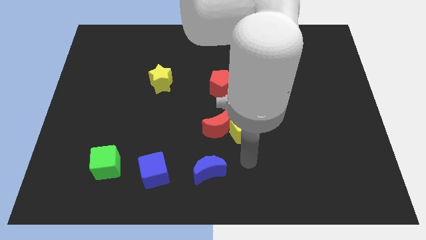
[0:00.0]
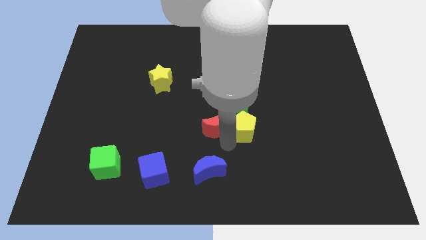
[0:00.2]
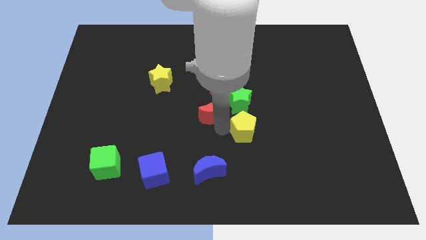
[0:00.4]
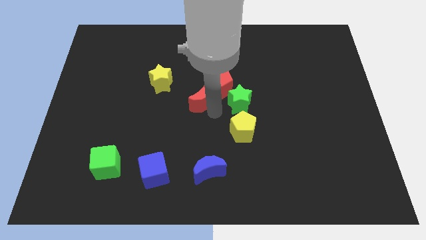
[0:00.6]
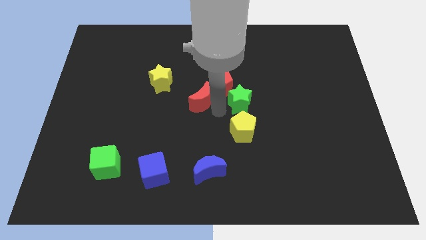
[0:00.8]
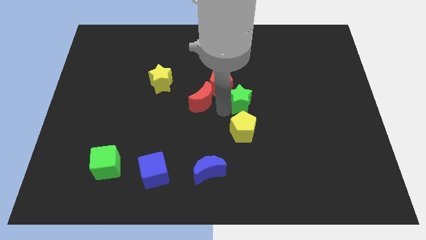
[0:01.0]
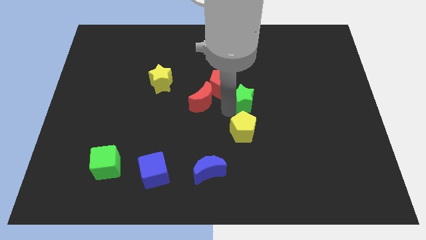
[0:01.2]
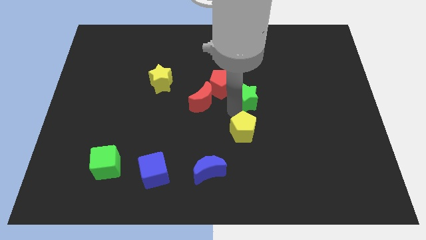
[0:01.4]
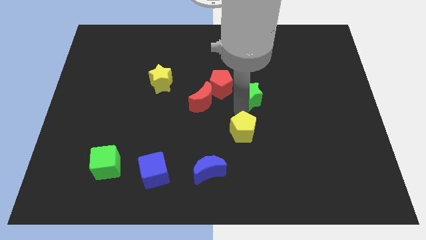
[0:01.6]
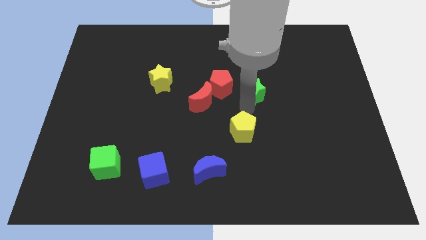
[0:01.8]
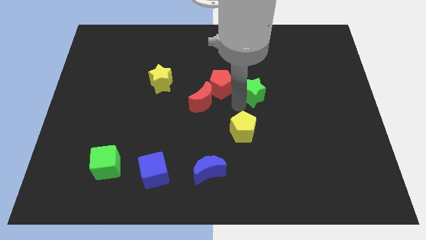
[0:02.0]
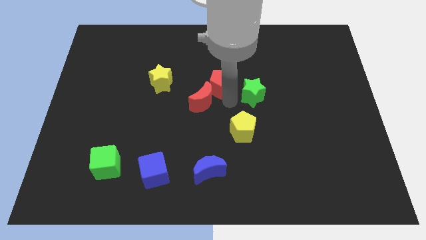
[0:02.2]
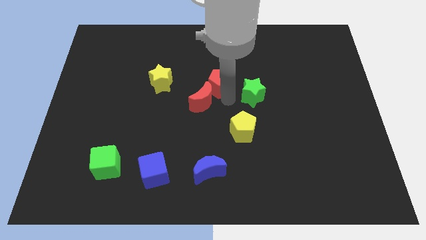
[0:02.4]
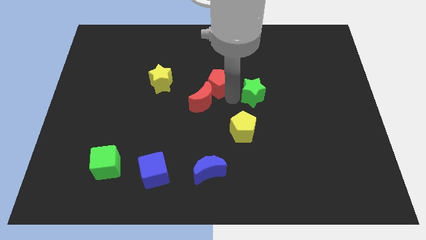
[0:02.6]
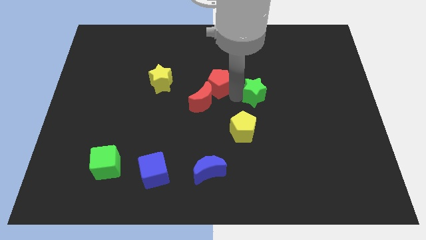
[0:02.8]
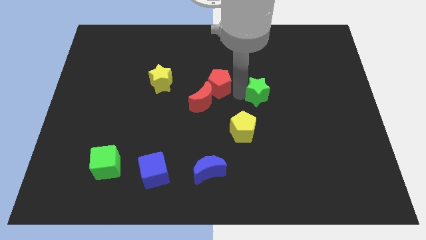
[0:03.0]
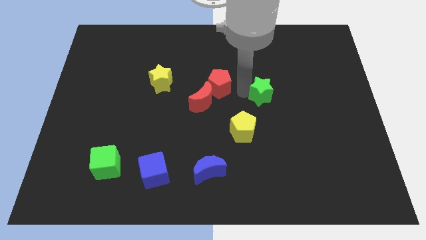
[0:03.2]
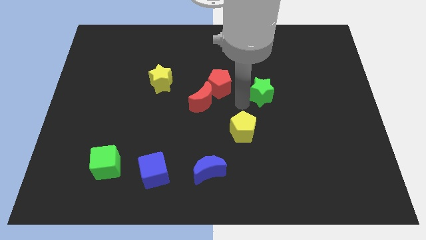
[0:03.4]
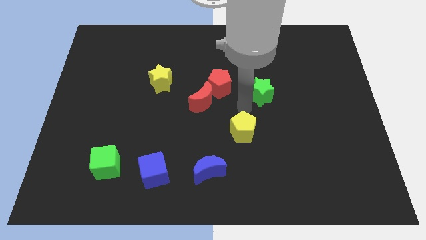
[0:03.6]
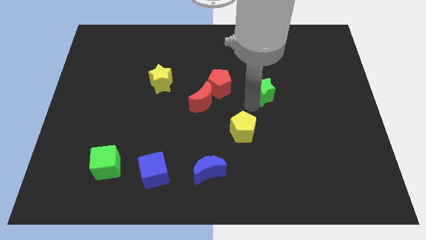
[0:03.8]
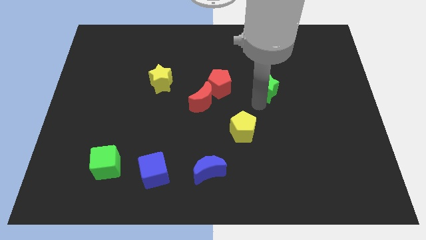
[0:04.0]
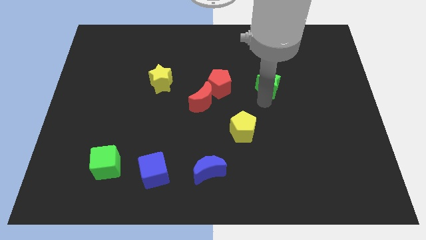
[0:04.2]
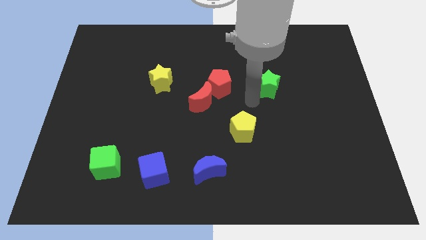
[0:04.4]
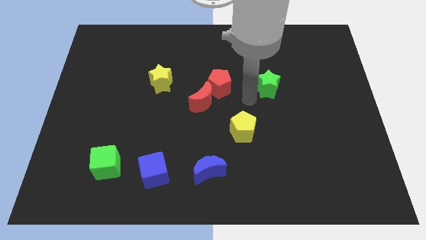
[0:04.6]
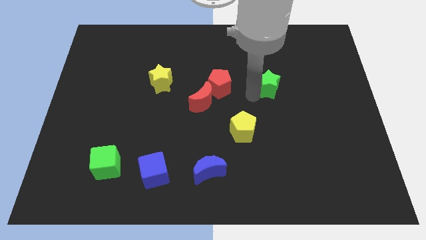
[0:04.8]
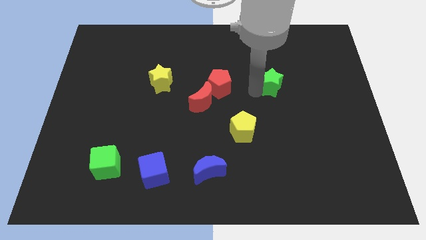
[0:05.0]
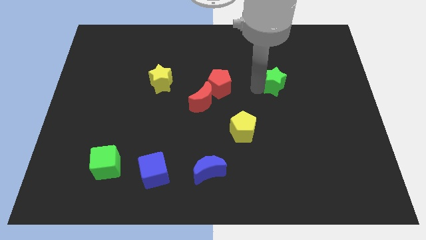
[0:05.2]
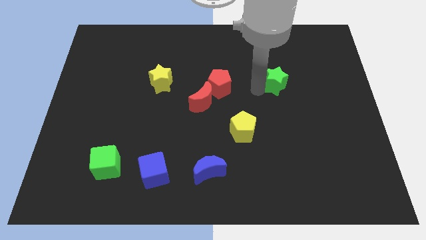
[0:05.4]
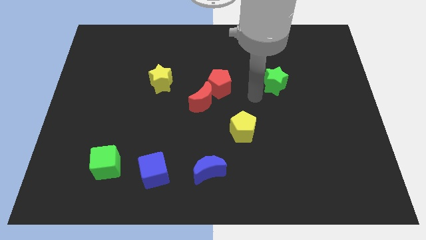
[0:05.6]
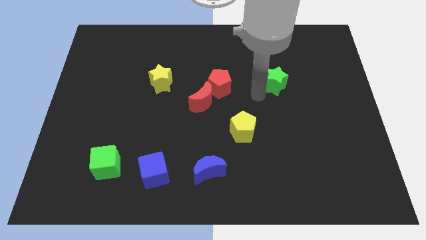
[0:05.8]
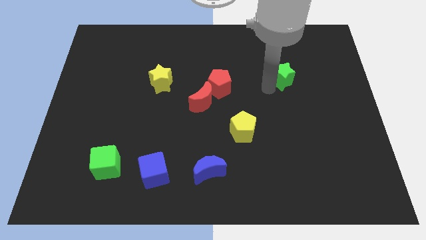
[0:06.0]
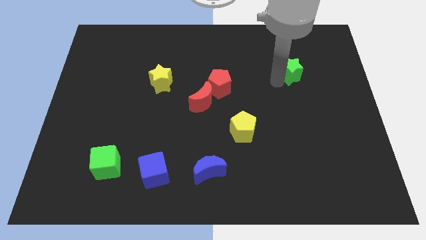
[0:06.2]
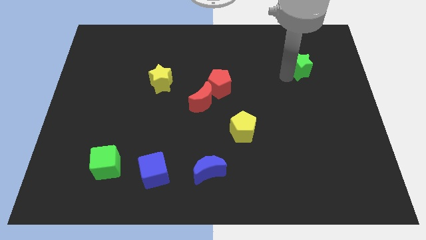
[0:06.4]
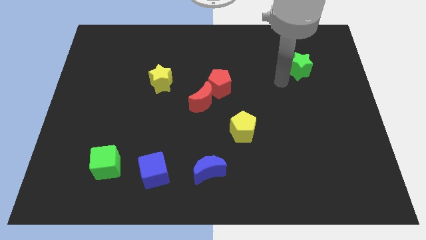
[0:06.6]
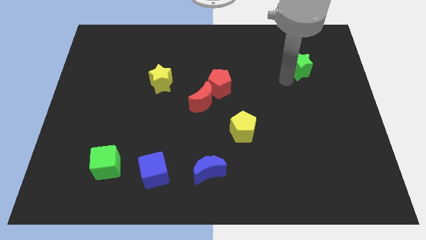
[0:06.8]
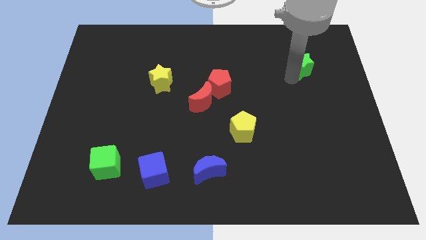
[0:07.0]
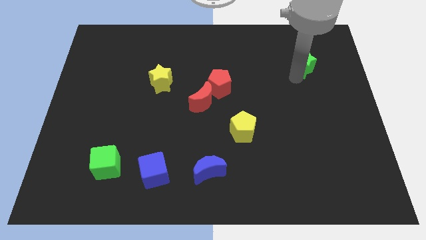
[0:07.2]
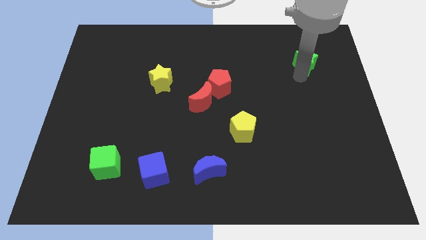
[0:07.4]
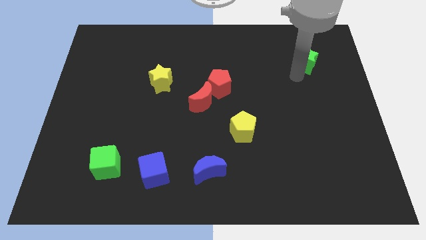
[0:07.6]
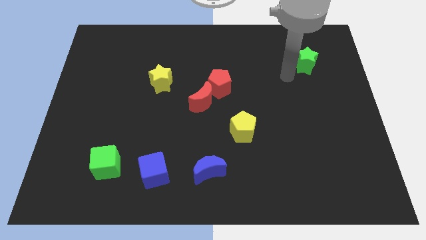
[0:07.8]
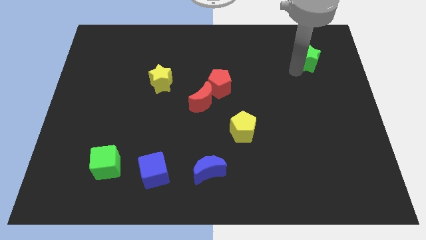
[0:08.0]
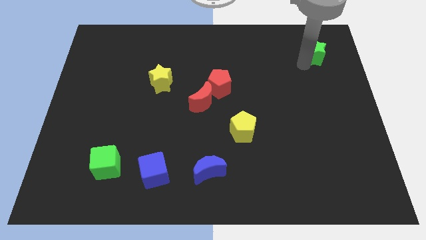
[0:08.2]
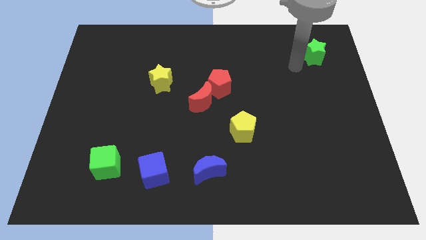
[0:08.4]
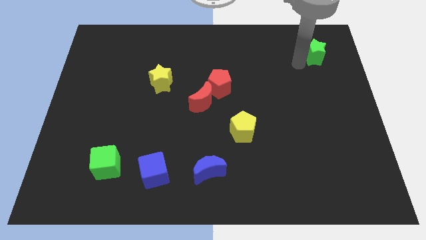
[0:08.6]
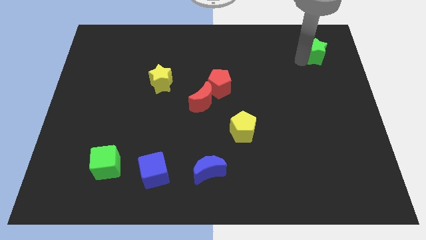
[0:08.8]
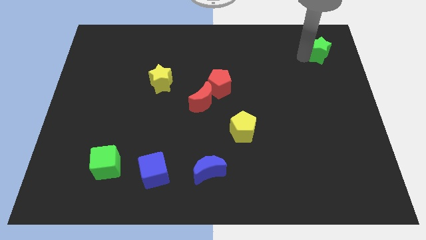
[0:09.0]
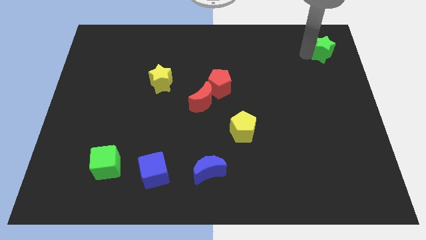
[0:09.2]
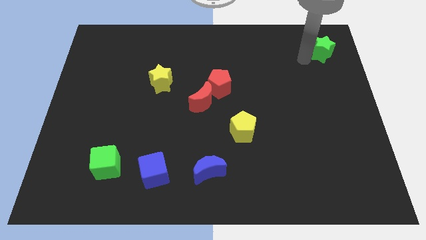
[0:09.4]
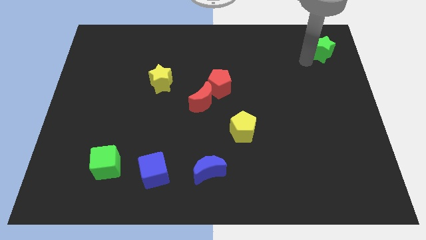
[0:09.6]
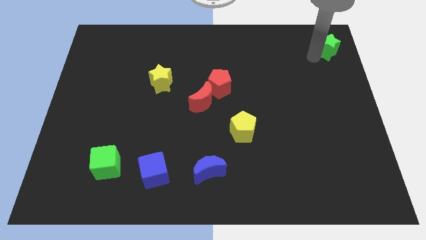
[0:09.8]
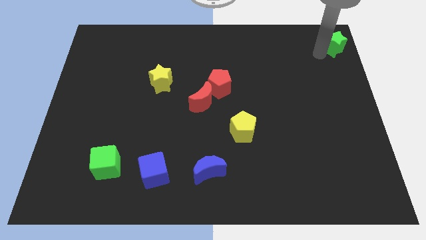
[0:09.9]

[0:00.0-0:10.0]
slide the green star to the top right

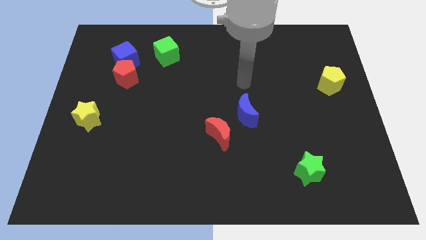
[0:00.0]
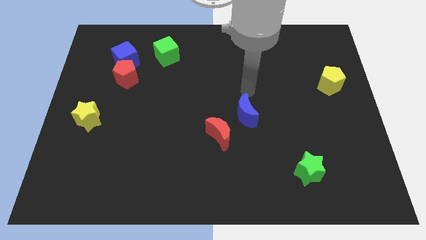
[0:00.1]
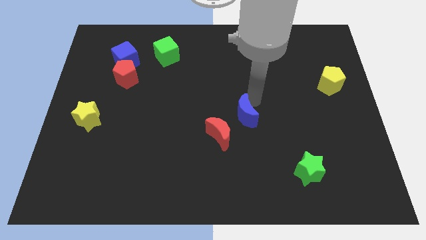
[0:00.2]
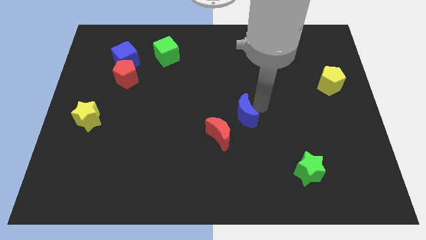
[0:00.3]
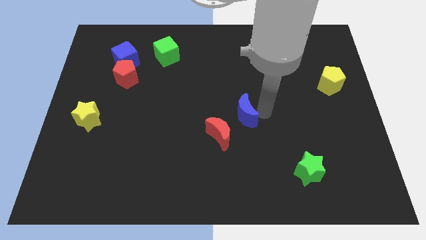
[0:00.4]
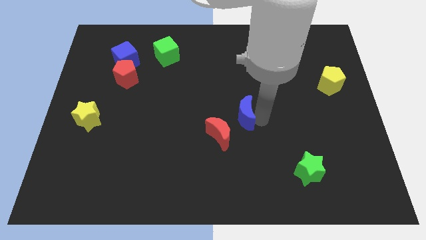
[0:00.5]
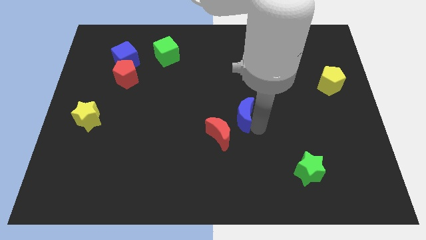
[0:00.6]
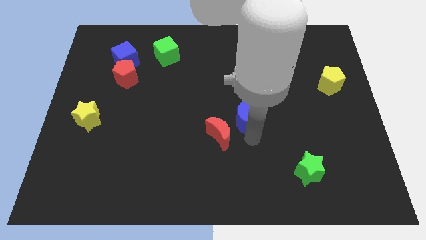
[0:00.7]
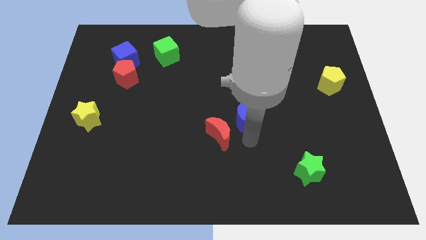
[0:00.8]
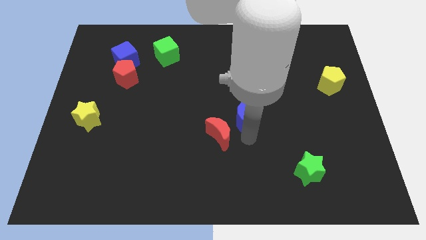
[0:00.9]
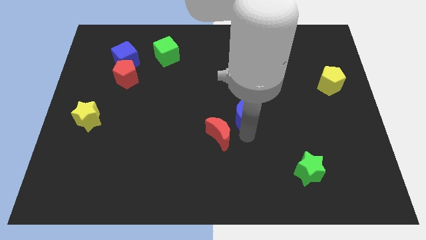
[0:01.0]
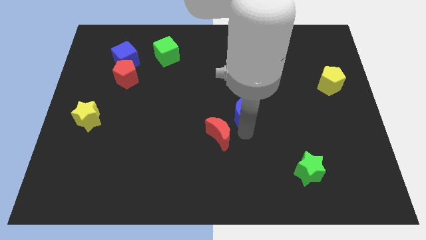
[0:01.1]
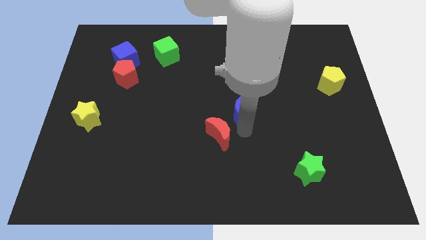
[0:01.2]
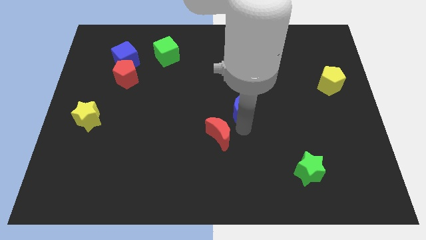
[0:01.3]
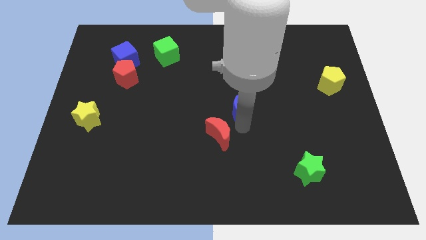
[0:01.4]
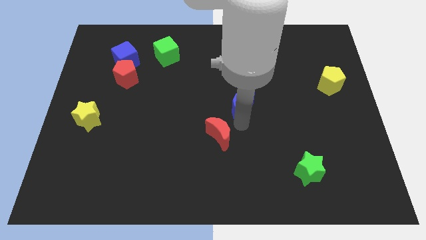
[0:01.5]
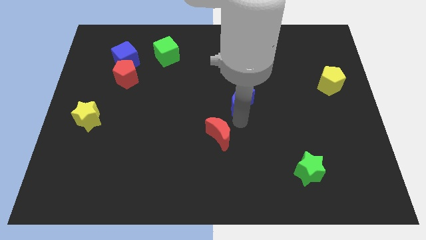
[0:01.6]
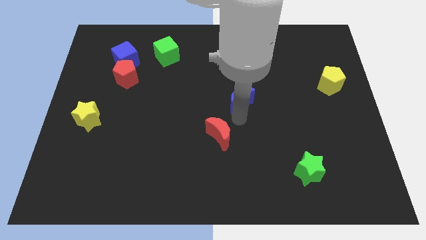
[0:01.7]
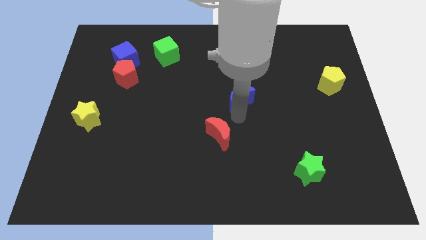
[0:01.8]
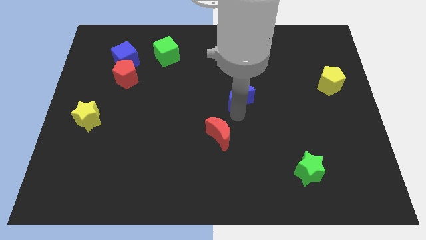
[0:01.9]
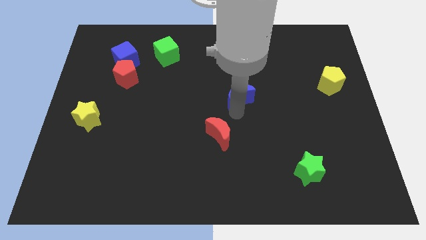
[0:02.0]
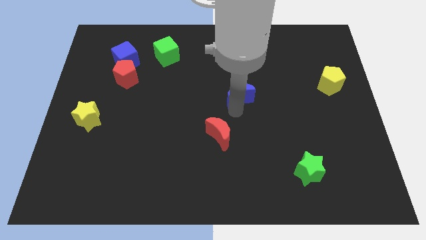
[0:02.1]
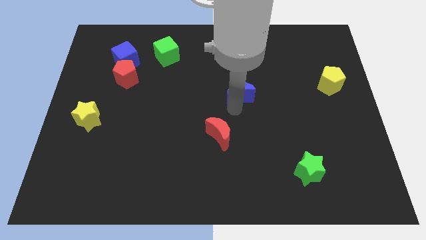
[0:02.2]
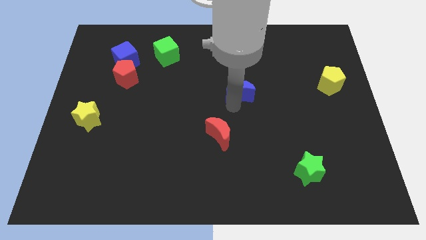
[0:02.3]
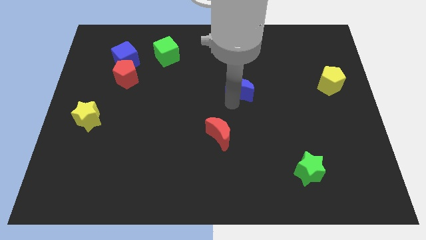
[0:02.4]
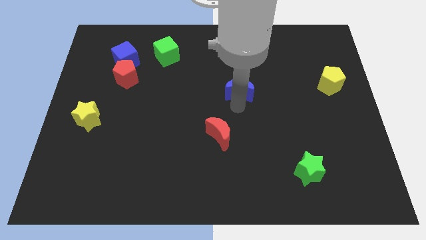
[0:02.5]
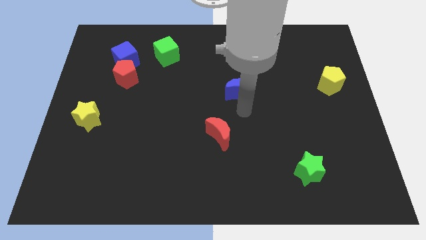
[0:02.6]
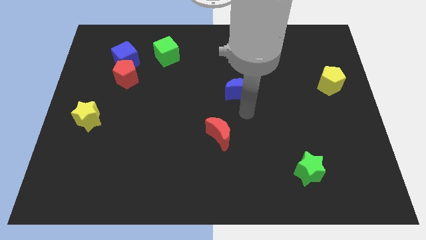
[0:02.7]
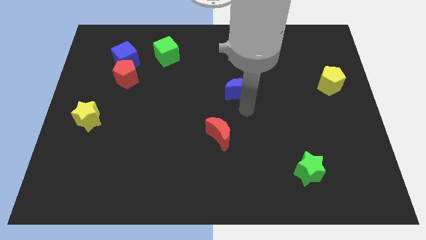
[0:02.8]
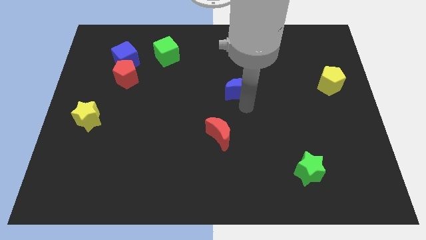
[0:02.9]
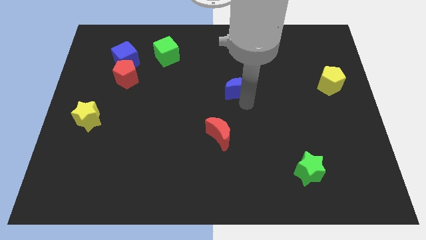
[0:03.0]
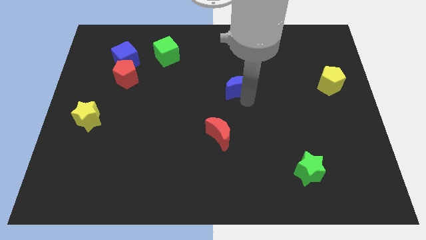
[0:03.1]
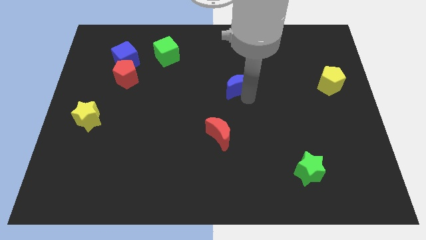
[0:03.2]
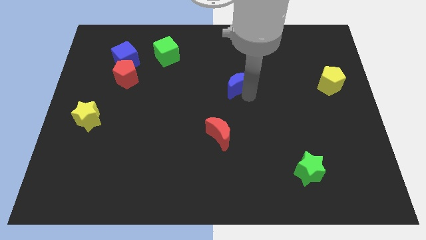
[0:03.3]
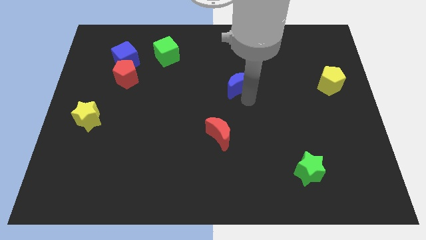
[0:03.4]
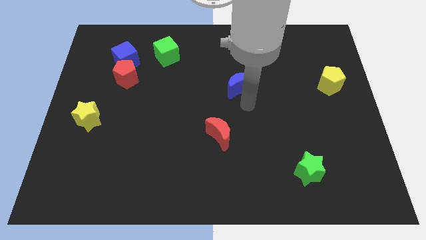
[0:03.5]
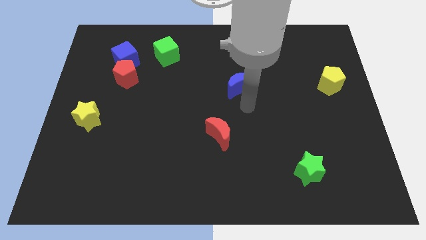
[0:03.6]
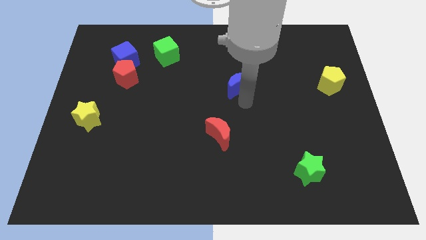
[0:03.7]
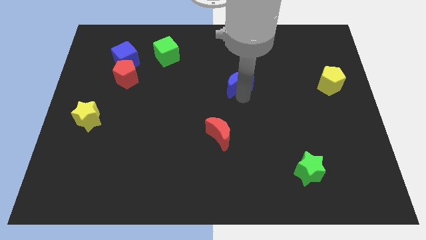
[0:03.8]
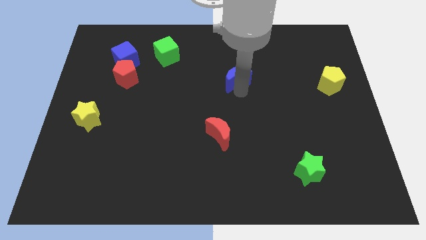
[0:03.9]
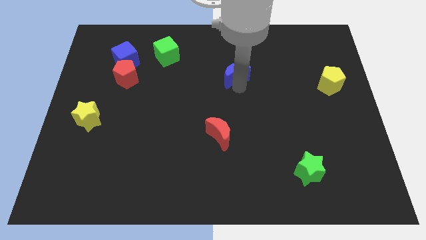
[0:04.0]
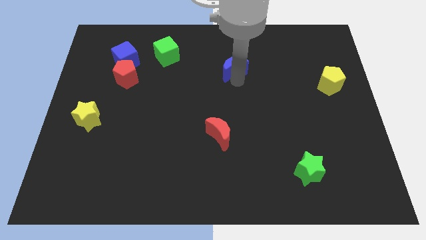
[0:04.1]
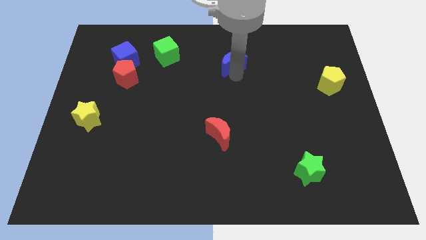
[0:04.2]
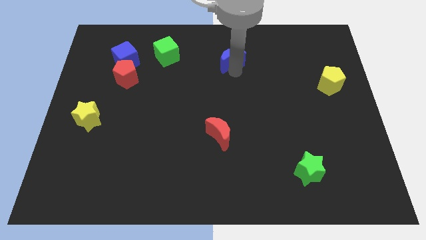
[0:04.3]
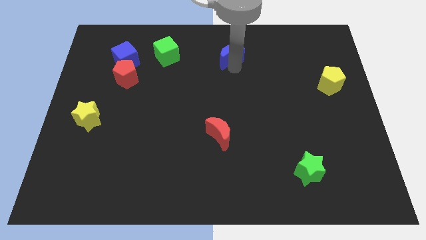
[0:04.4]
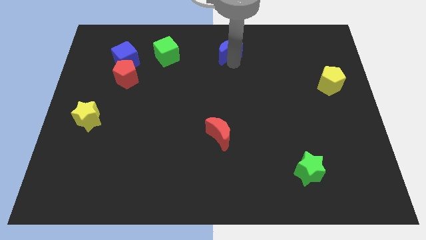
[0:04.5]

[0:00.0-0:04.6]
push the blue moon to the towards your base
